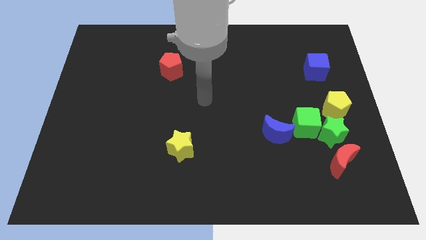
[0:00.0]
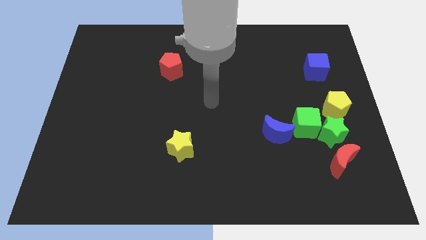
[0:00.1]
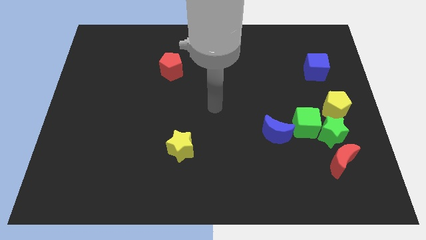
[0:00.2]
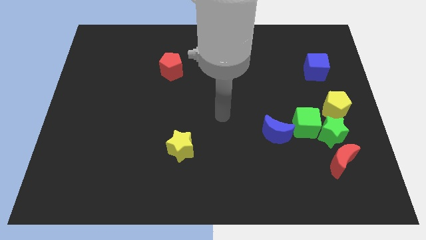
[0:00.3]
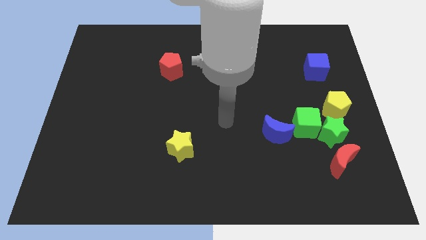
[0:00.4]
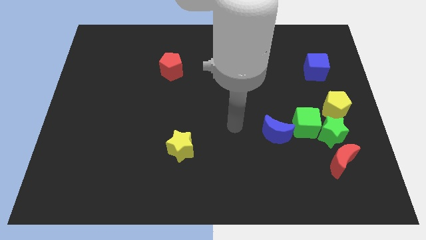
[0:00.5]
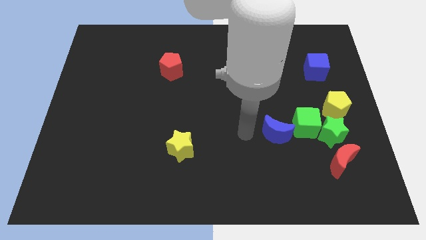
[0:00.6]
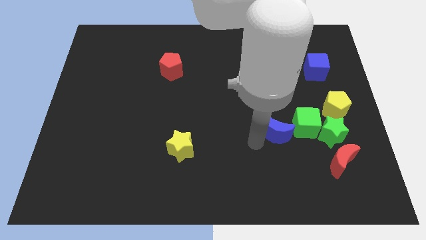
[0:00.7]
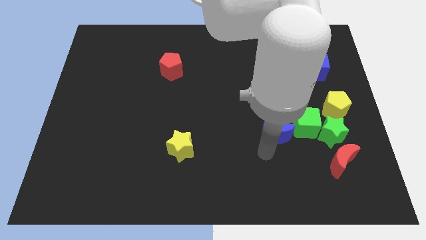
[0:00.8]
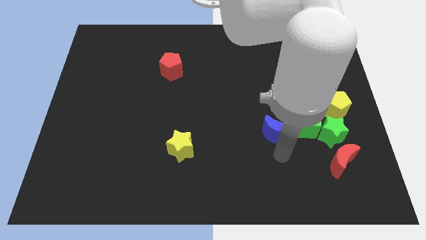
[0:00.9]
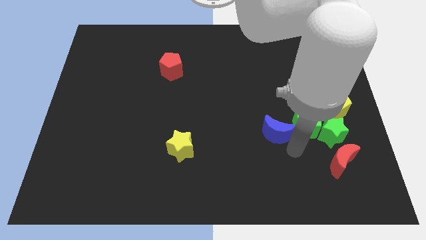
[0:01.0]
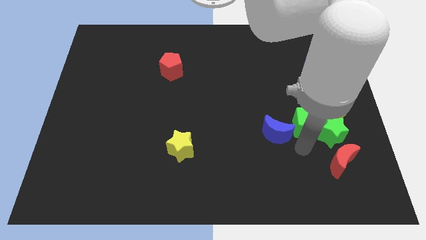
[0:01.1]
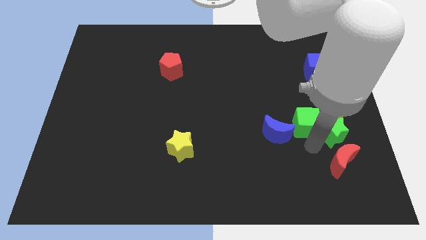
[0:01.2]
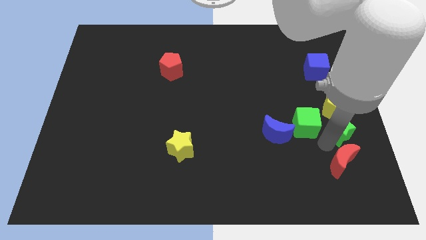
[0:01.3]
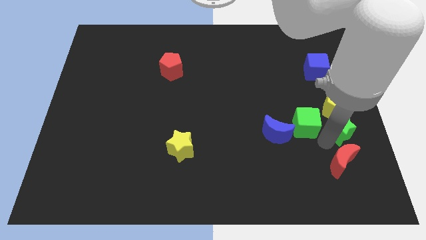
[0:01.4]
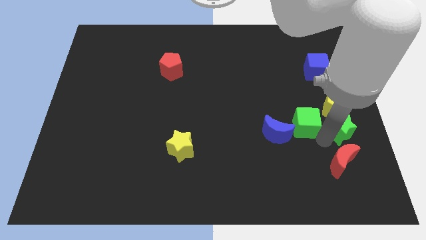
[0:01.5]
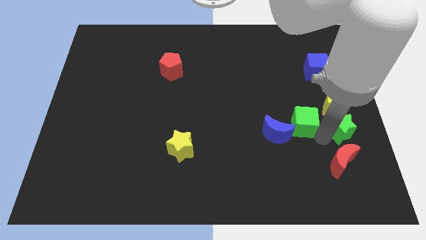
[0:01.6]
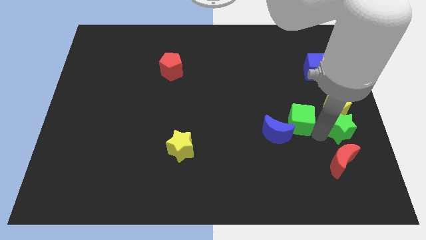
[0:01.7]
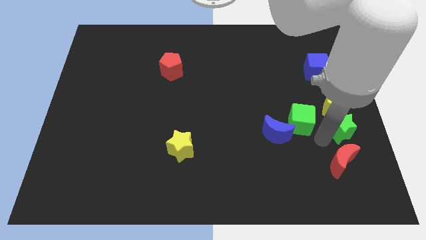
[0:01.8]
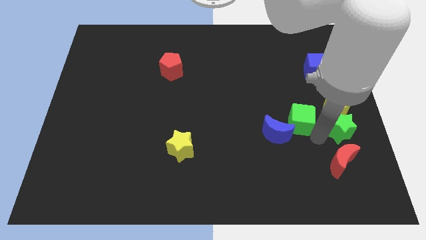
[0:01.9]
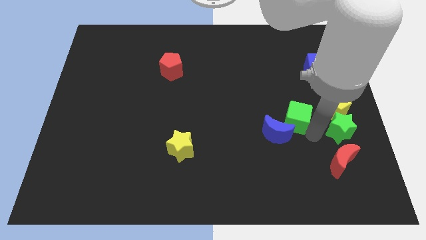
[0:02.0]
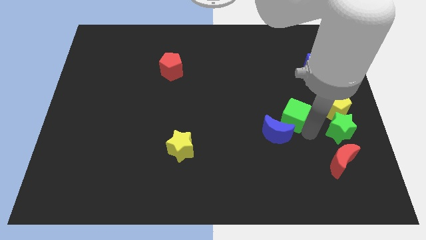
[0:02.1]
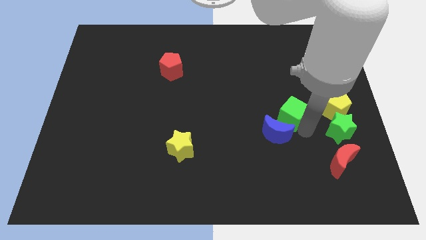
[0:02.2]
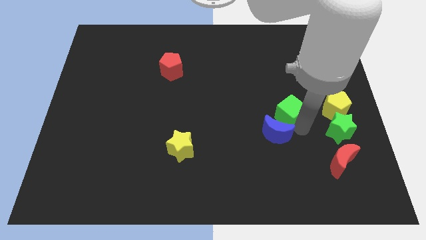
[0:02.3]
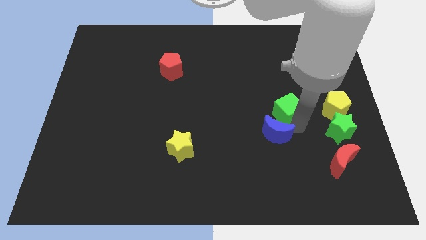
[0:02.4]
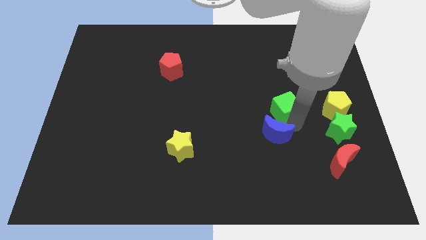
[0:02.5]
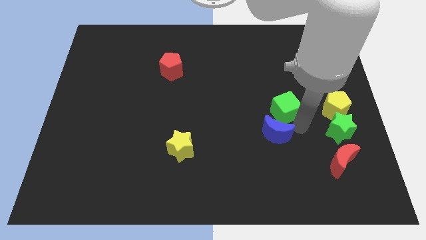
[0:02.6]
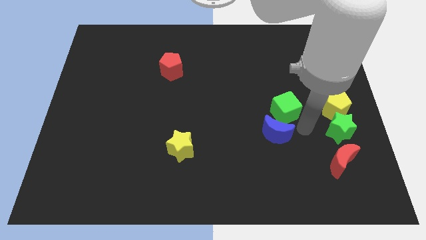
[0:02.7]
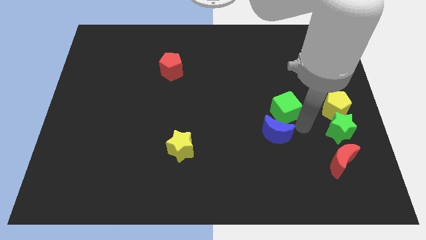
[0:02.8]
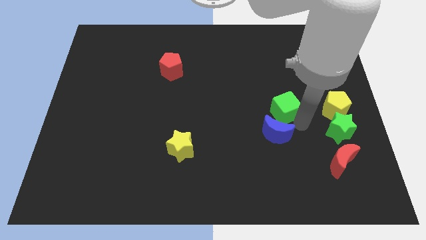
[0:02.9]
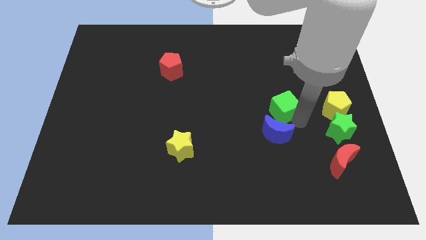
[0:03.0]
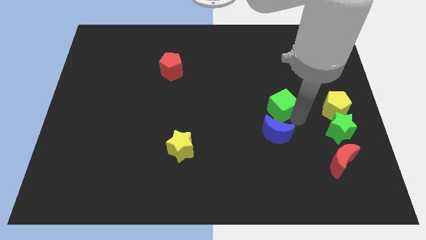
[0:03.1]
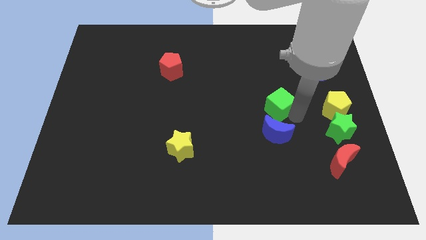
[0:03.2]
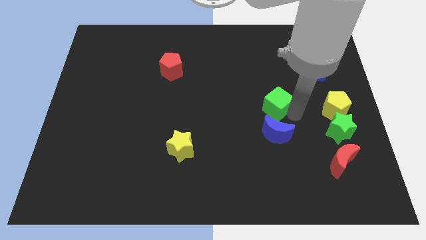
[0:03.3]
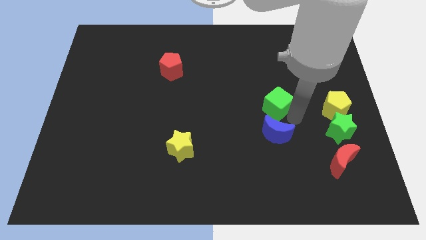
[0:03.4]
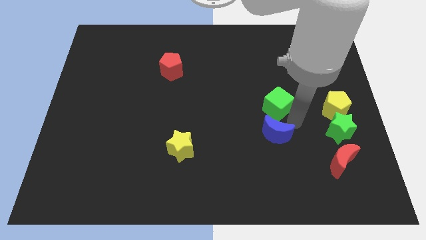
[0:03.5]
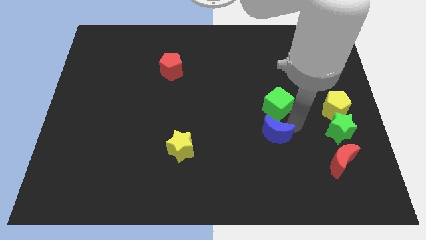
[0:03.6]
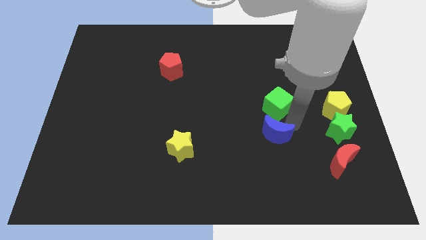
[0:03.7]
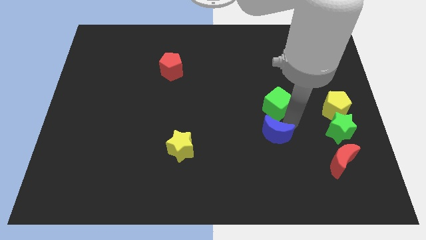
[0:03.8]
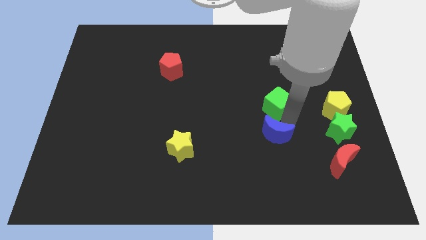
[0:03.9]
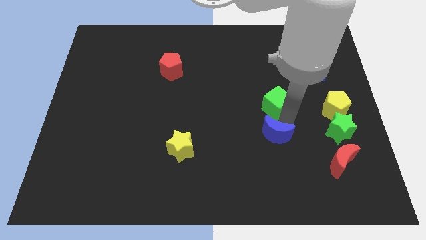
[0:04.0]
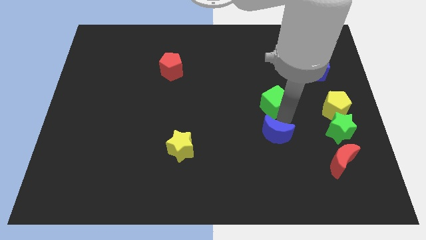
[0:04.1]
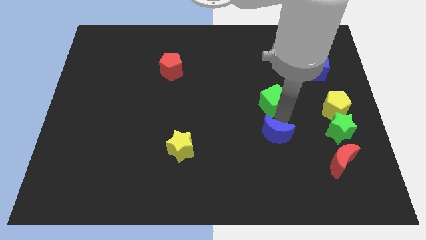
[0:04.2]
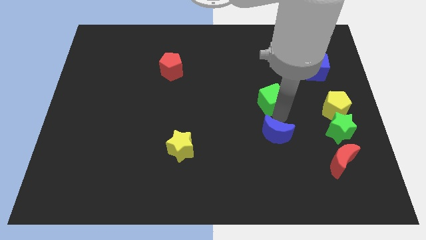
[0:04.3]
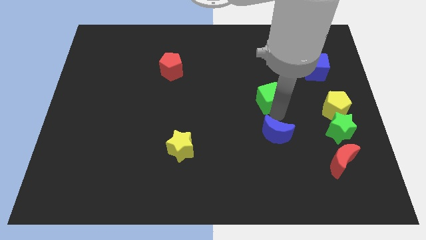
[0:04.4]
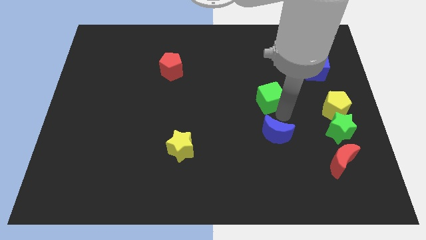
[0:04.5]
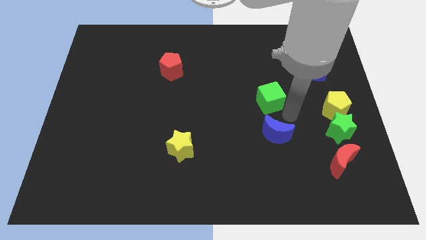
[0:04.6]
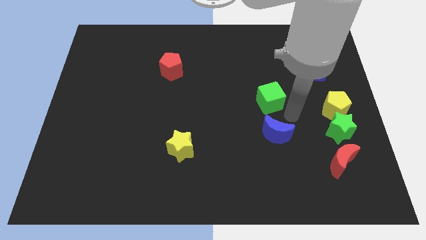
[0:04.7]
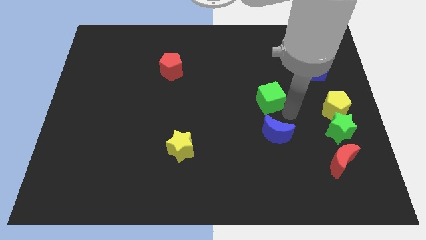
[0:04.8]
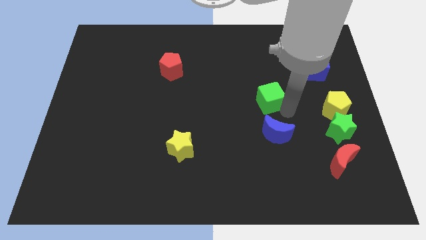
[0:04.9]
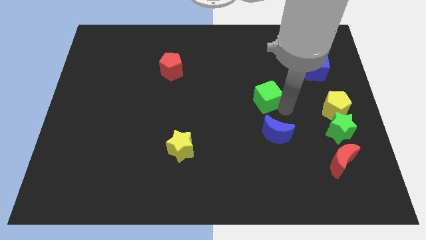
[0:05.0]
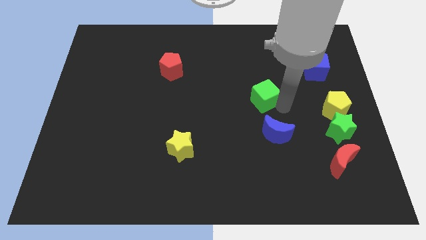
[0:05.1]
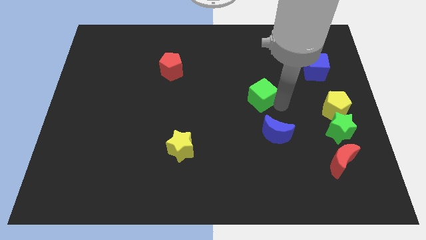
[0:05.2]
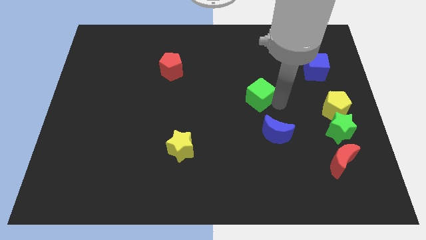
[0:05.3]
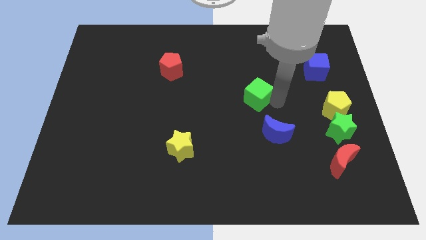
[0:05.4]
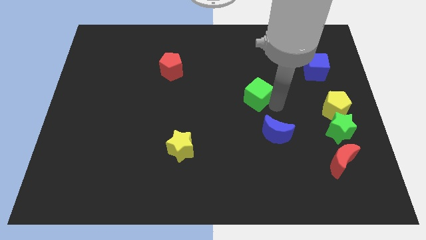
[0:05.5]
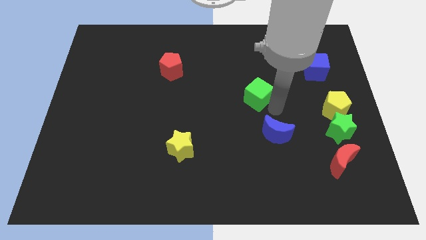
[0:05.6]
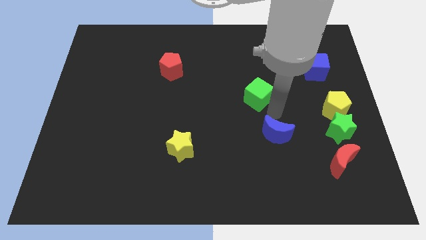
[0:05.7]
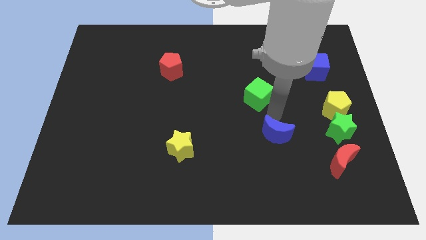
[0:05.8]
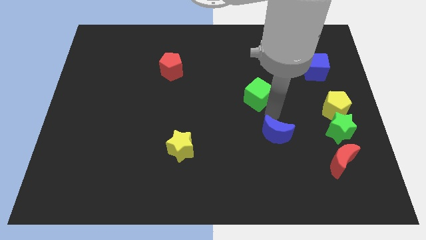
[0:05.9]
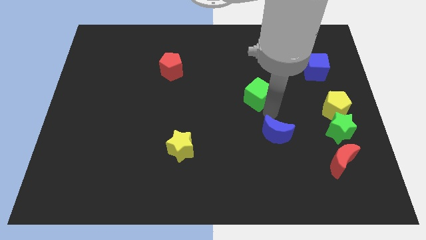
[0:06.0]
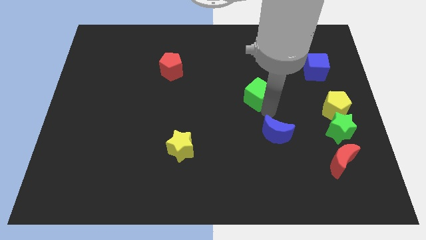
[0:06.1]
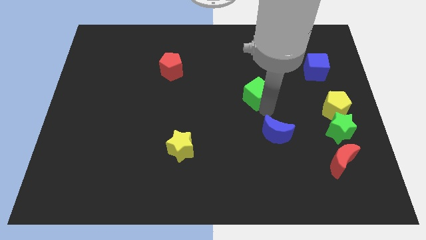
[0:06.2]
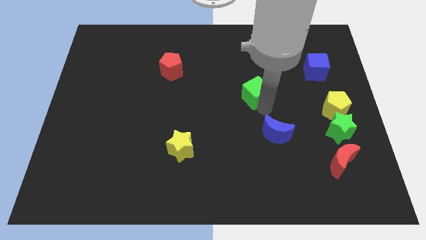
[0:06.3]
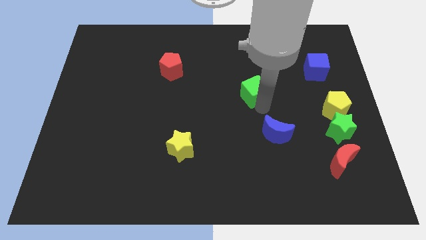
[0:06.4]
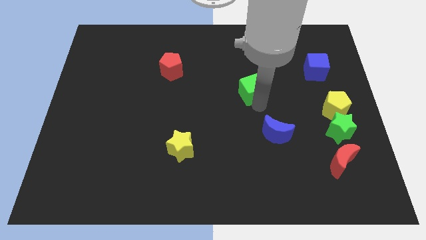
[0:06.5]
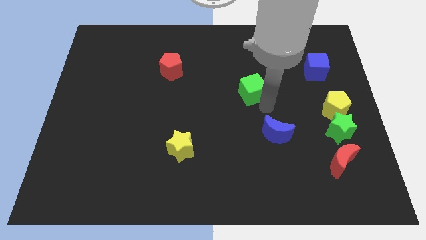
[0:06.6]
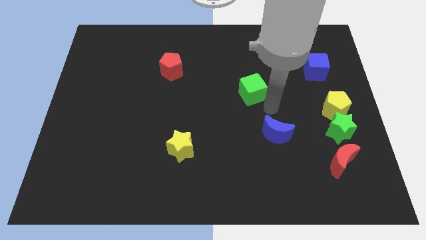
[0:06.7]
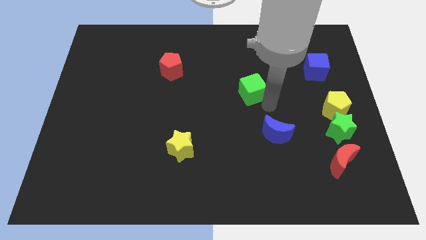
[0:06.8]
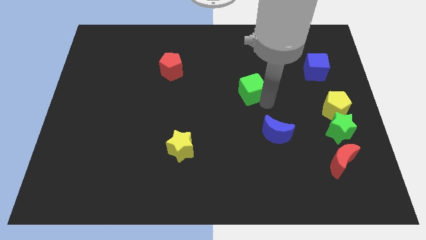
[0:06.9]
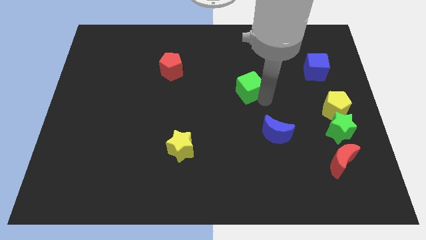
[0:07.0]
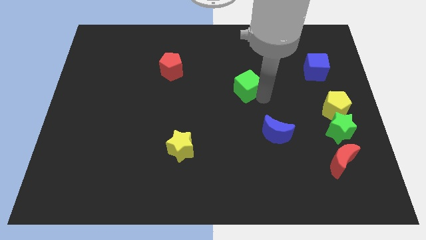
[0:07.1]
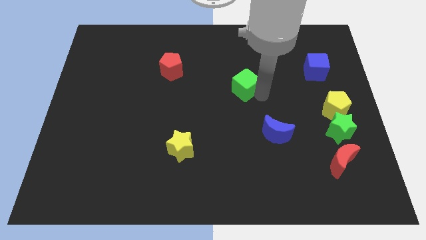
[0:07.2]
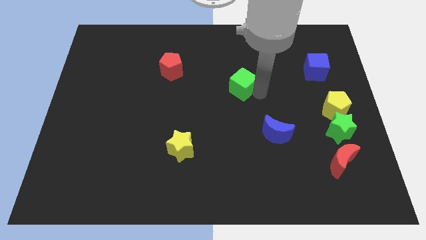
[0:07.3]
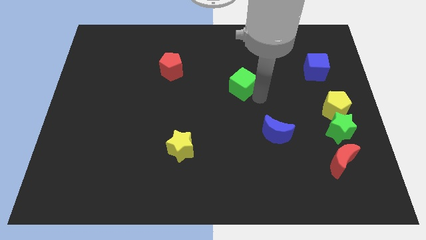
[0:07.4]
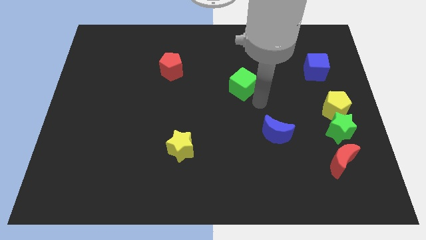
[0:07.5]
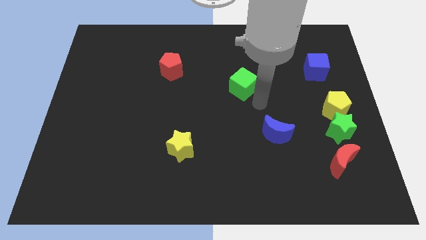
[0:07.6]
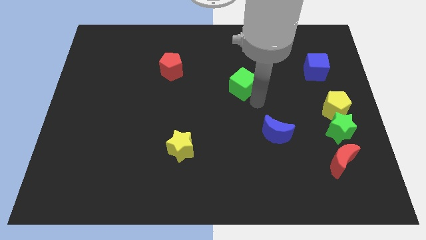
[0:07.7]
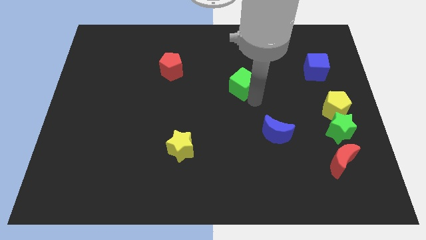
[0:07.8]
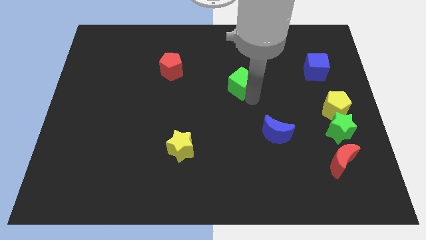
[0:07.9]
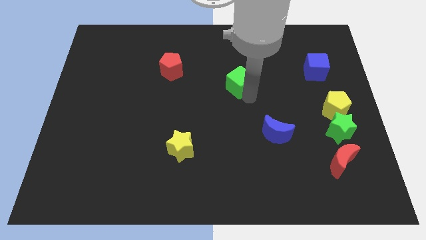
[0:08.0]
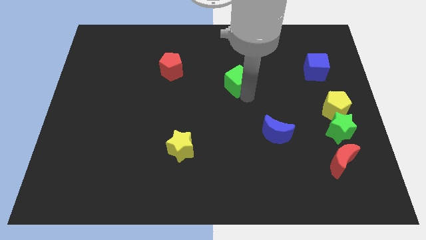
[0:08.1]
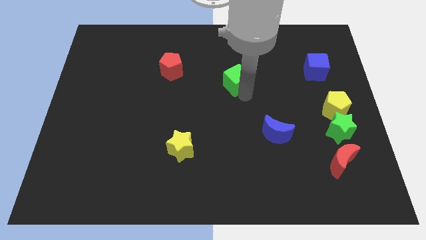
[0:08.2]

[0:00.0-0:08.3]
push the green cube upwards and left diagonally
